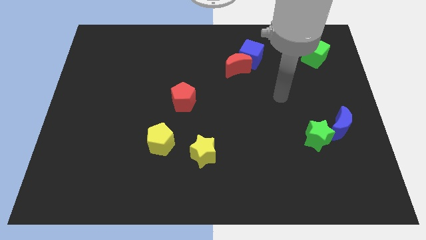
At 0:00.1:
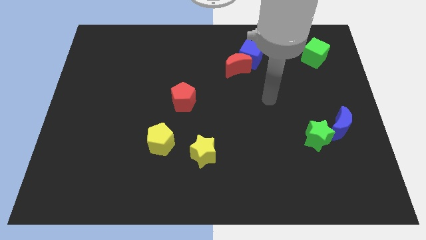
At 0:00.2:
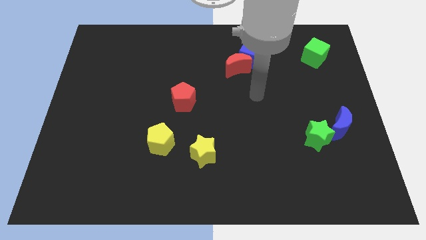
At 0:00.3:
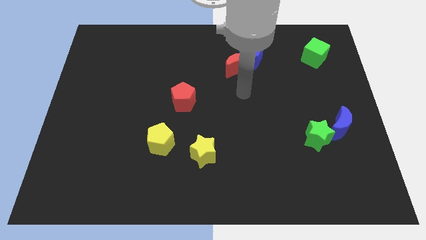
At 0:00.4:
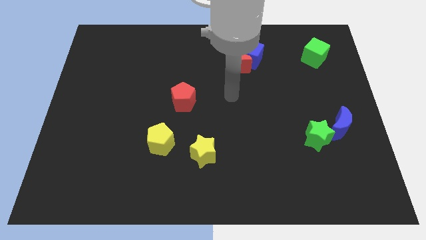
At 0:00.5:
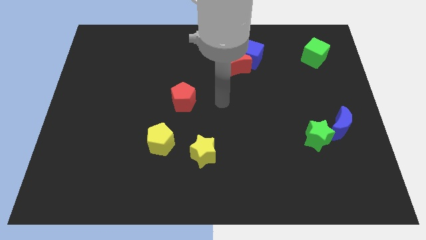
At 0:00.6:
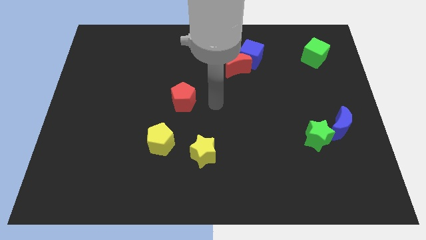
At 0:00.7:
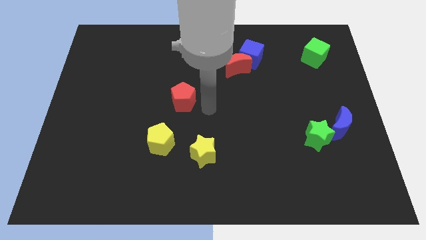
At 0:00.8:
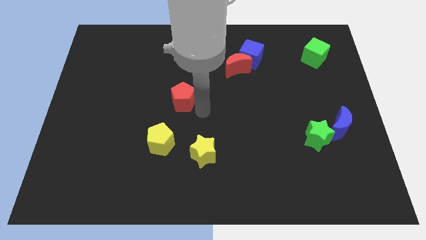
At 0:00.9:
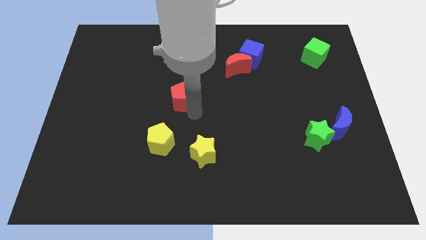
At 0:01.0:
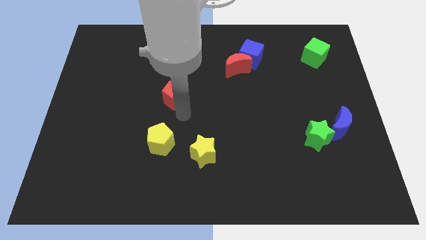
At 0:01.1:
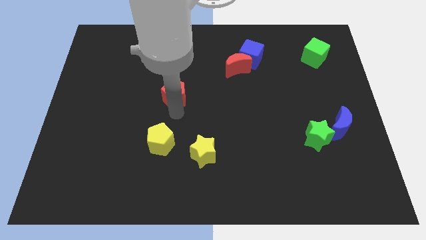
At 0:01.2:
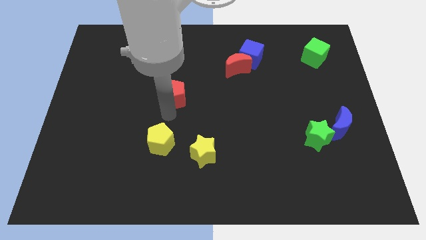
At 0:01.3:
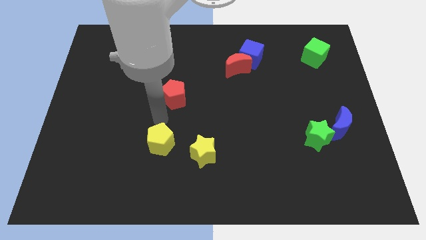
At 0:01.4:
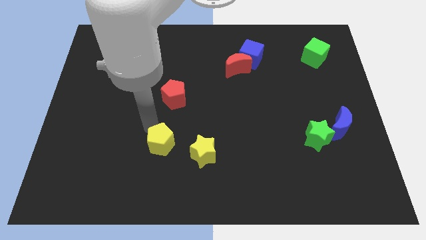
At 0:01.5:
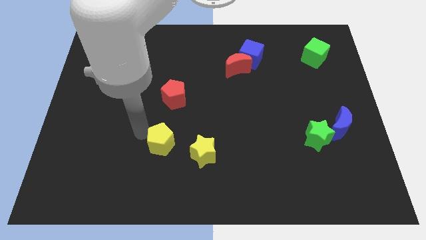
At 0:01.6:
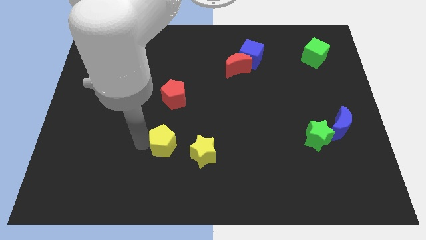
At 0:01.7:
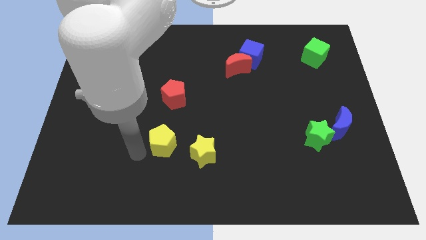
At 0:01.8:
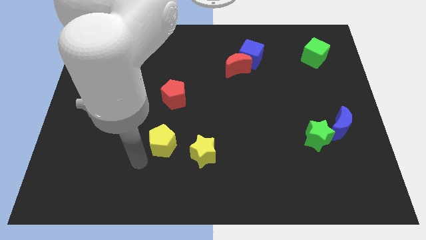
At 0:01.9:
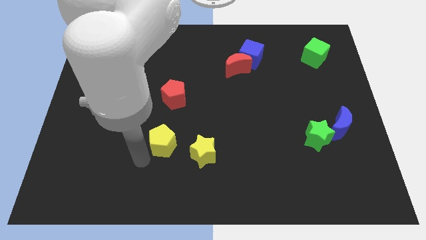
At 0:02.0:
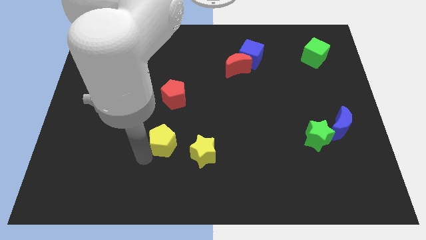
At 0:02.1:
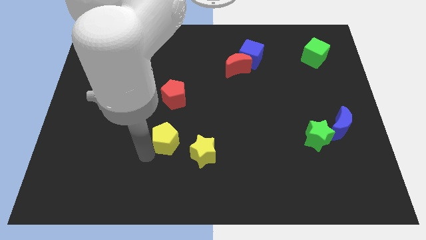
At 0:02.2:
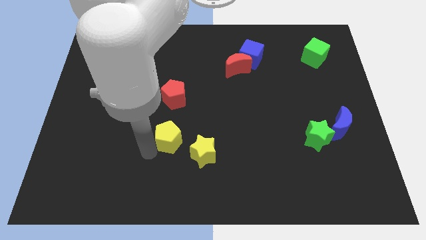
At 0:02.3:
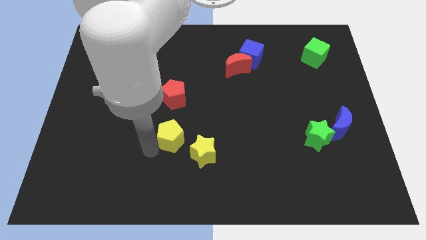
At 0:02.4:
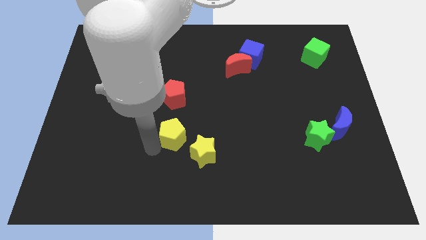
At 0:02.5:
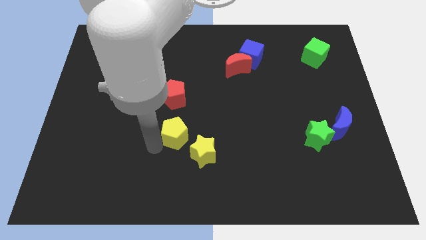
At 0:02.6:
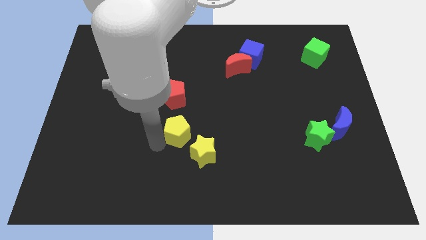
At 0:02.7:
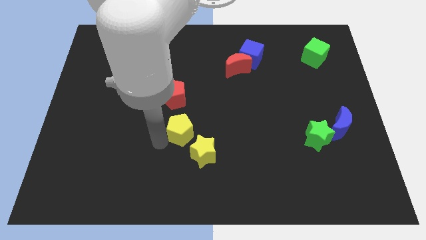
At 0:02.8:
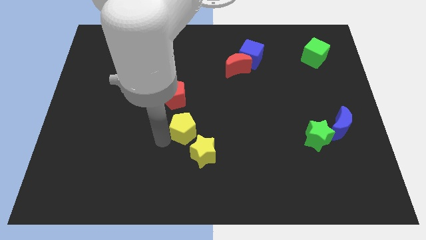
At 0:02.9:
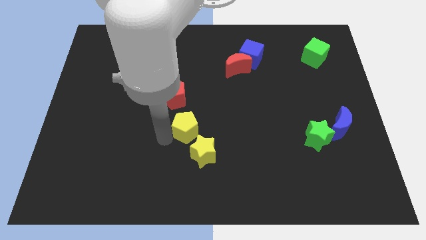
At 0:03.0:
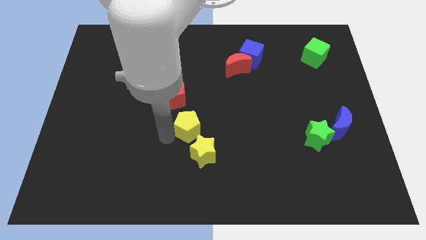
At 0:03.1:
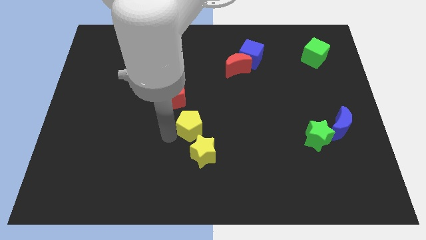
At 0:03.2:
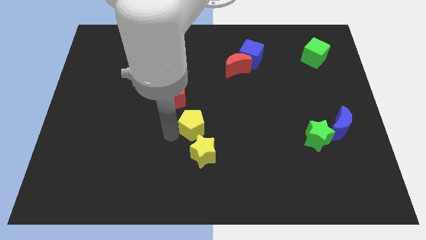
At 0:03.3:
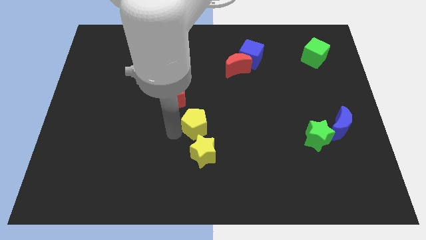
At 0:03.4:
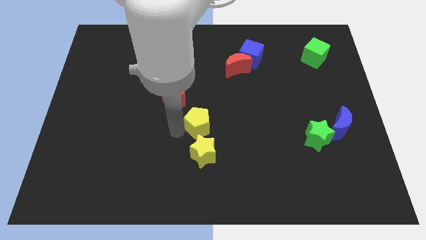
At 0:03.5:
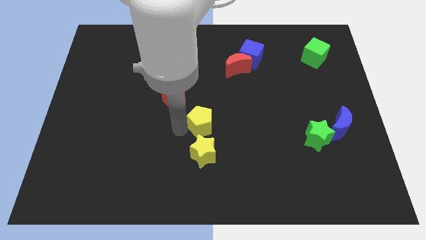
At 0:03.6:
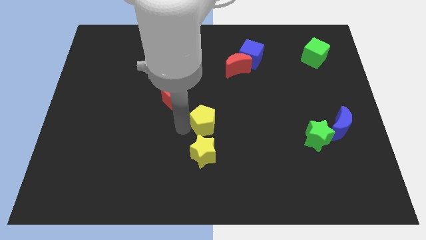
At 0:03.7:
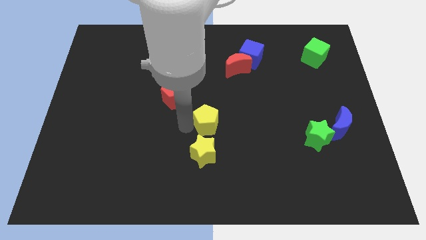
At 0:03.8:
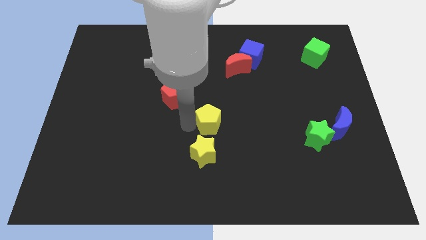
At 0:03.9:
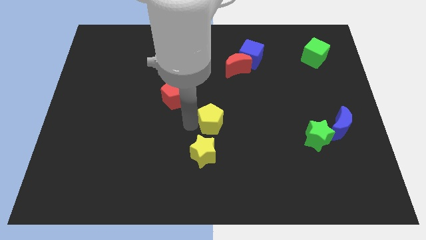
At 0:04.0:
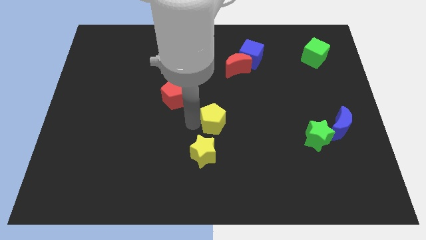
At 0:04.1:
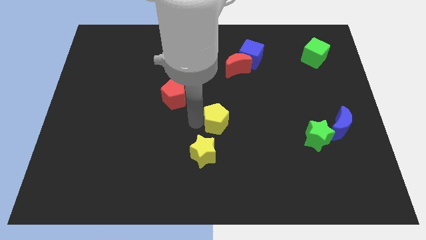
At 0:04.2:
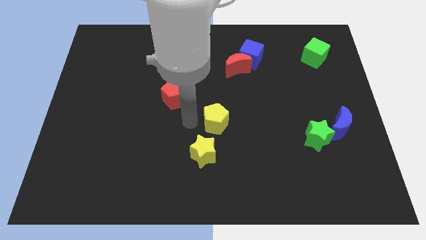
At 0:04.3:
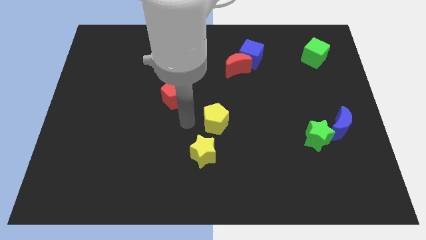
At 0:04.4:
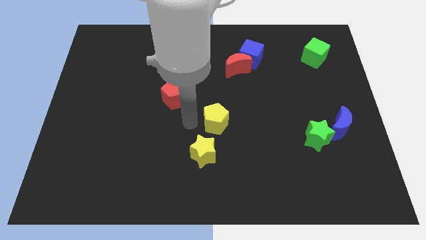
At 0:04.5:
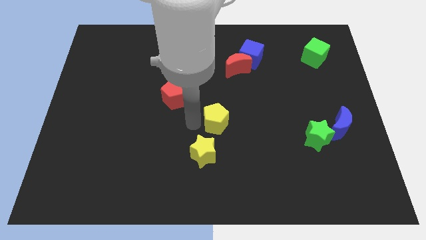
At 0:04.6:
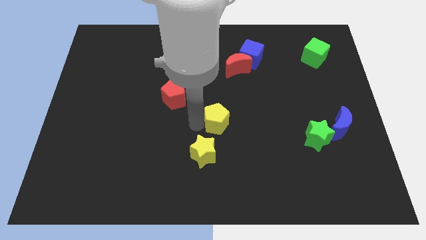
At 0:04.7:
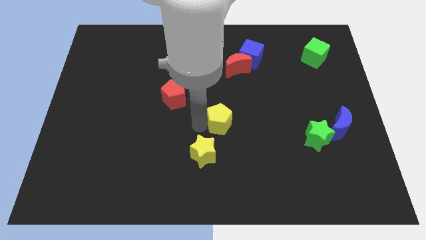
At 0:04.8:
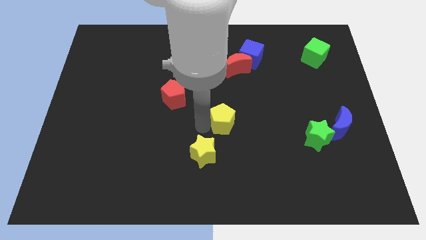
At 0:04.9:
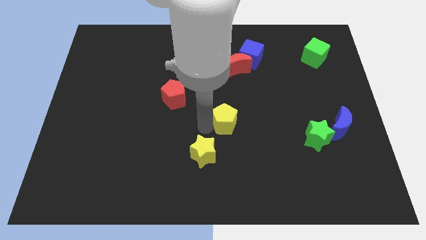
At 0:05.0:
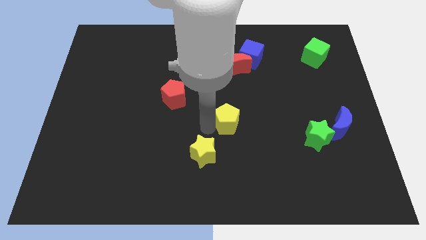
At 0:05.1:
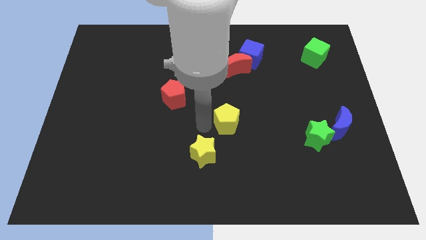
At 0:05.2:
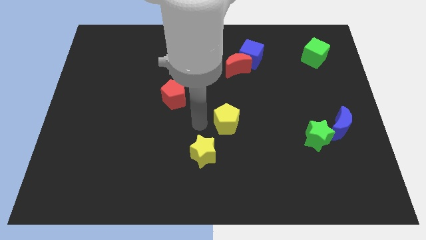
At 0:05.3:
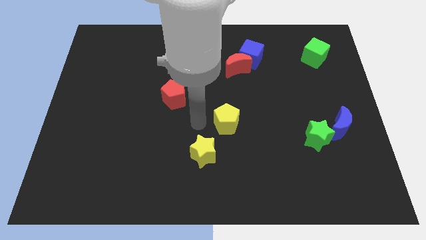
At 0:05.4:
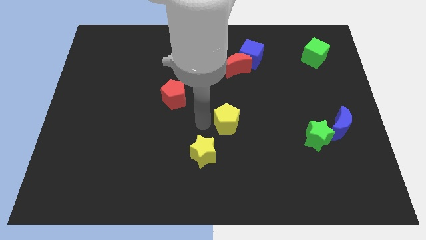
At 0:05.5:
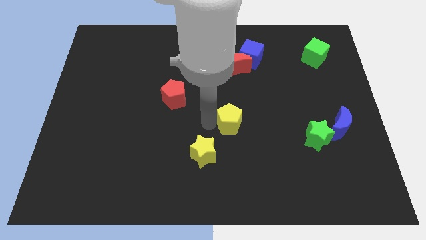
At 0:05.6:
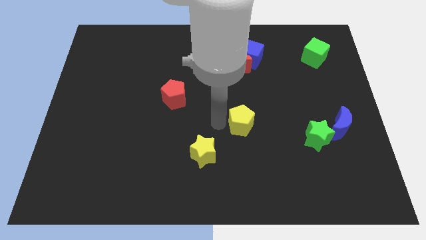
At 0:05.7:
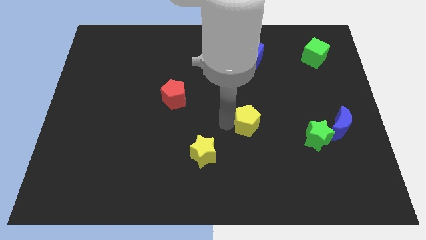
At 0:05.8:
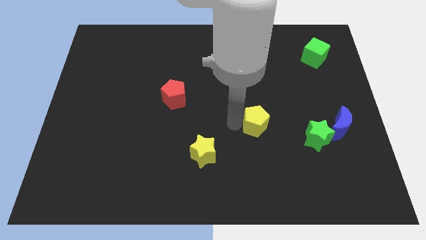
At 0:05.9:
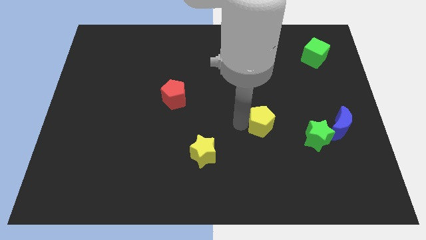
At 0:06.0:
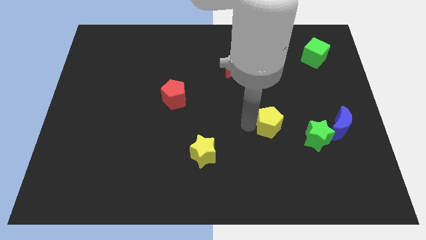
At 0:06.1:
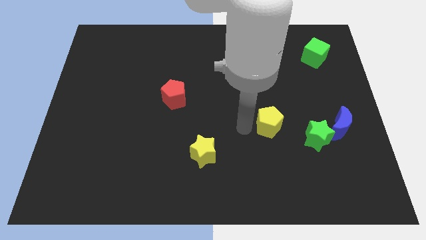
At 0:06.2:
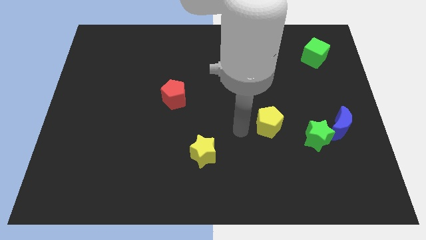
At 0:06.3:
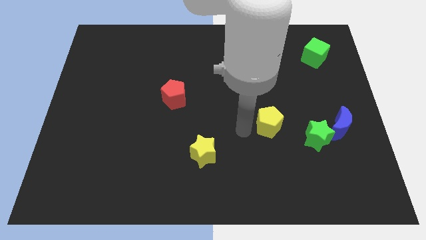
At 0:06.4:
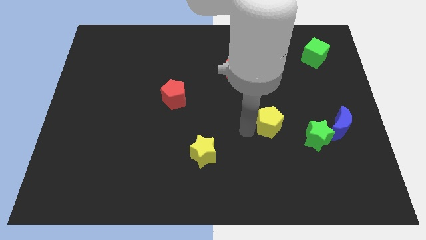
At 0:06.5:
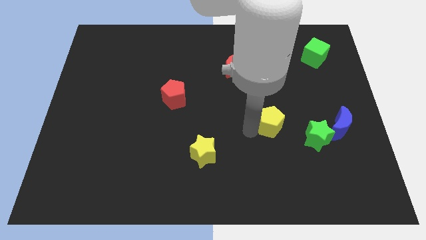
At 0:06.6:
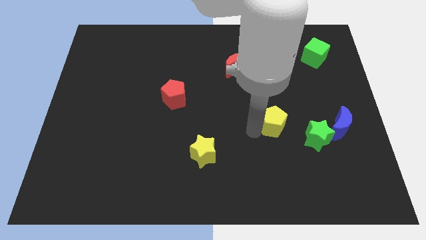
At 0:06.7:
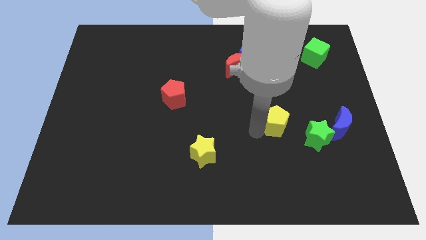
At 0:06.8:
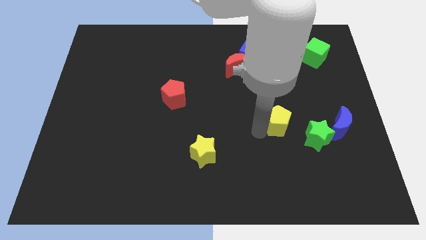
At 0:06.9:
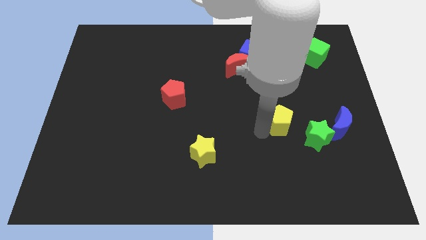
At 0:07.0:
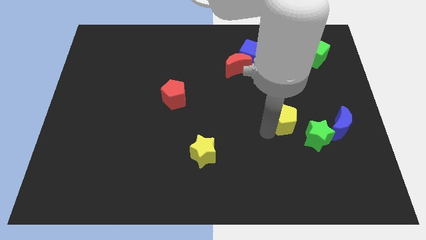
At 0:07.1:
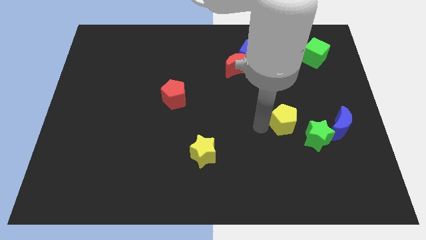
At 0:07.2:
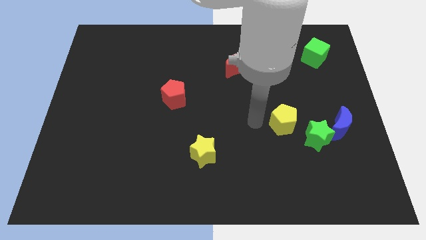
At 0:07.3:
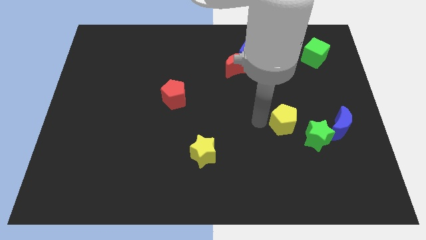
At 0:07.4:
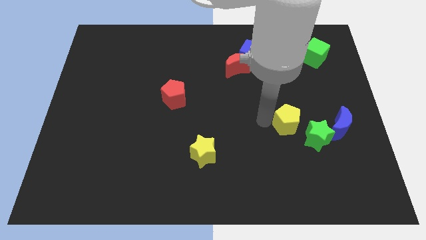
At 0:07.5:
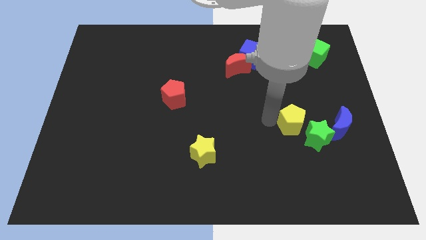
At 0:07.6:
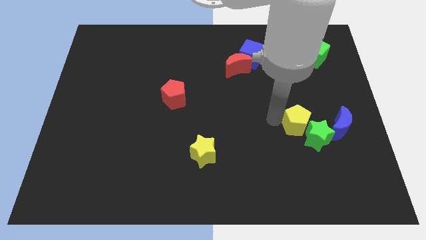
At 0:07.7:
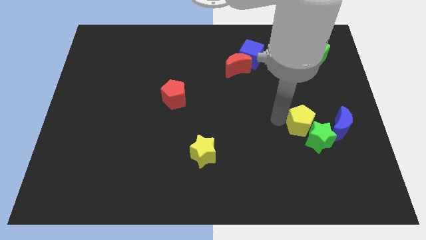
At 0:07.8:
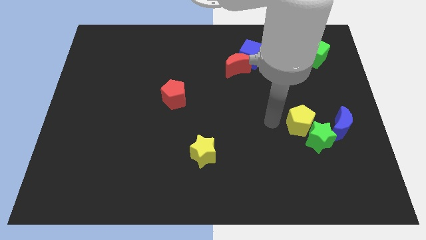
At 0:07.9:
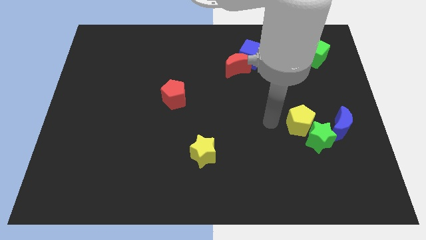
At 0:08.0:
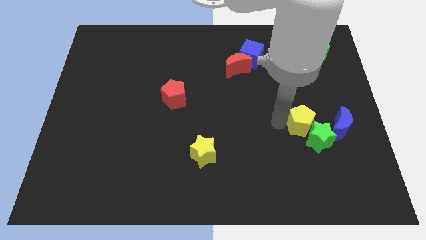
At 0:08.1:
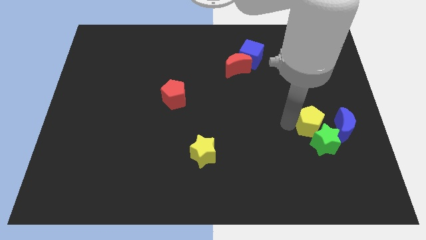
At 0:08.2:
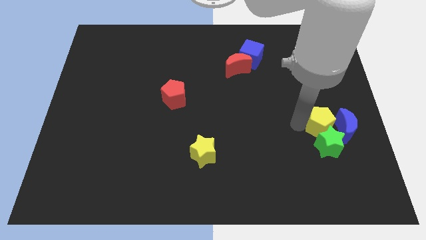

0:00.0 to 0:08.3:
put the yellow pentagon close to the blue moon
